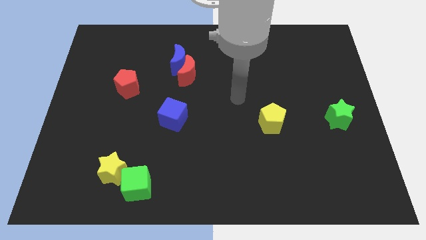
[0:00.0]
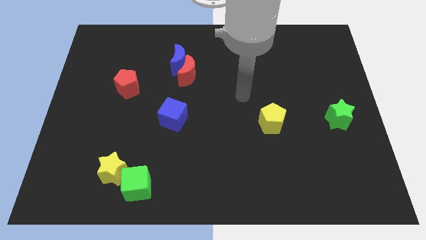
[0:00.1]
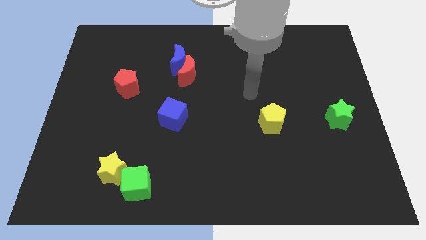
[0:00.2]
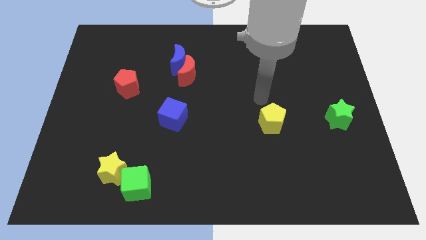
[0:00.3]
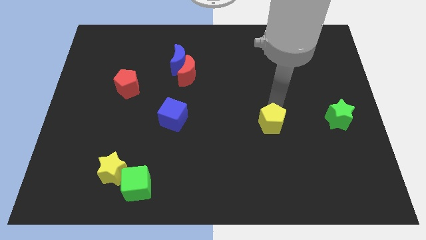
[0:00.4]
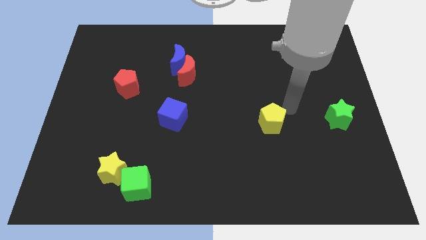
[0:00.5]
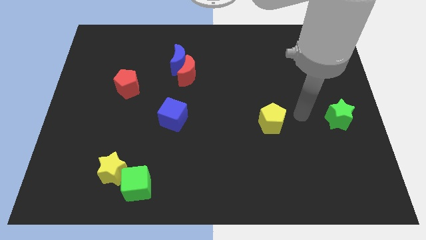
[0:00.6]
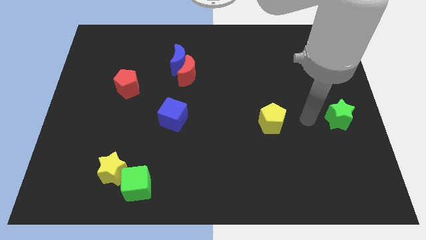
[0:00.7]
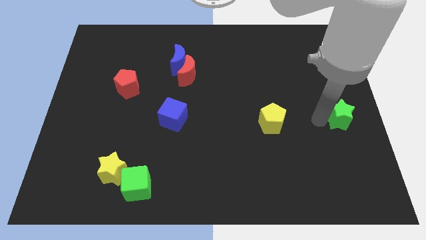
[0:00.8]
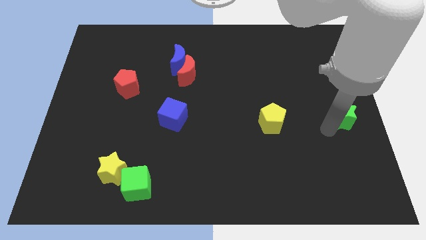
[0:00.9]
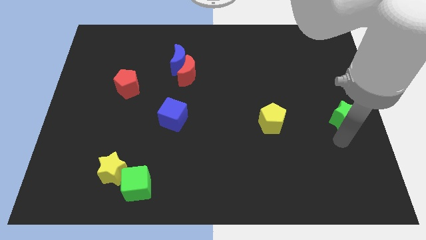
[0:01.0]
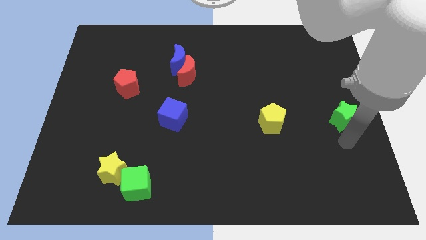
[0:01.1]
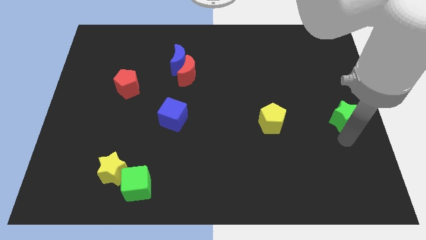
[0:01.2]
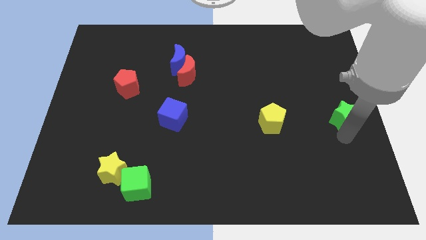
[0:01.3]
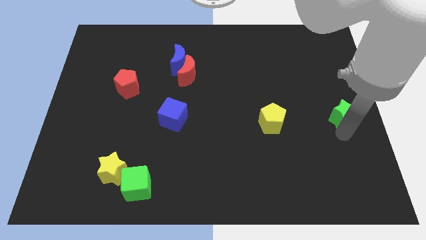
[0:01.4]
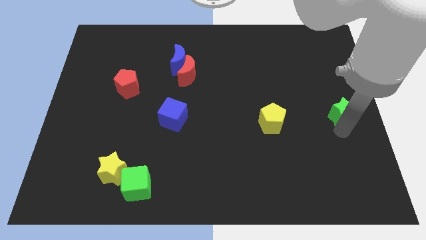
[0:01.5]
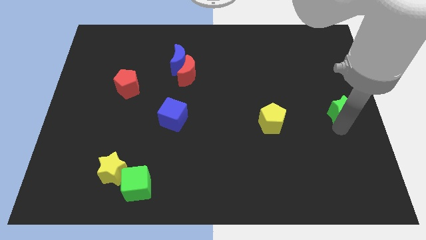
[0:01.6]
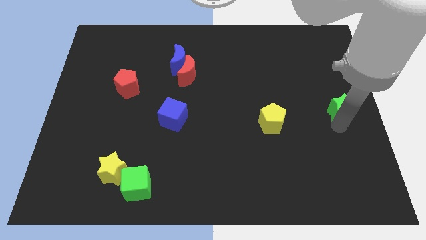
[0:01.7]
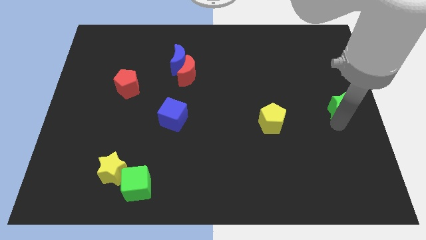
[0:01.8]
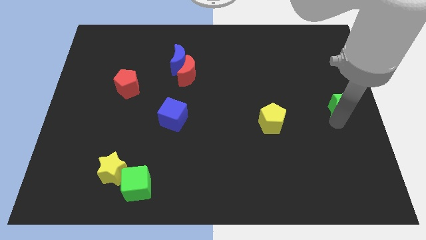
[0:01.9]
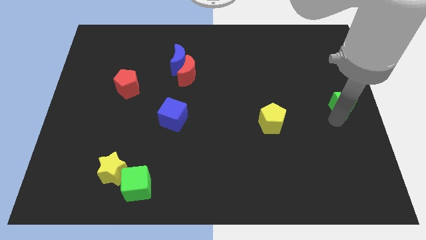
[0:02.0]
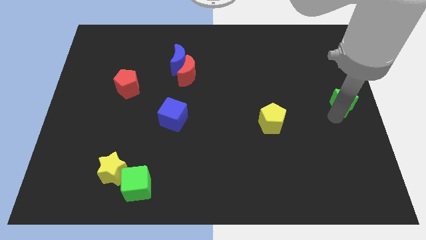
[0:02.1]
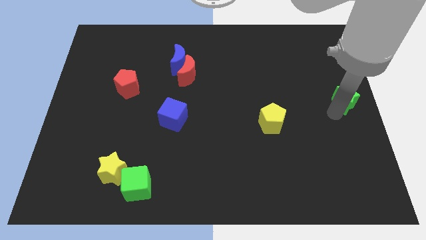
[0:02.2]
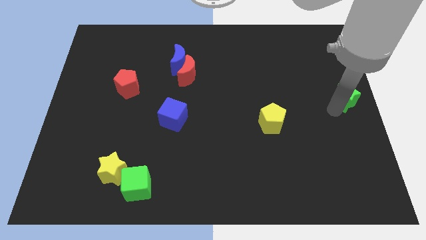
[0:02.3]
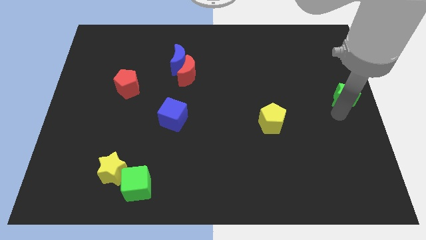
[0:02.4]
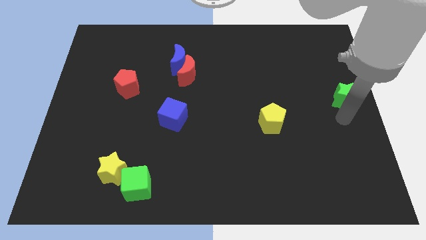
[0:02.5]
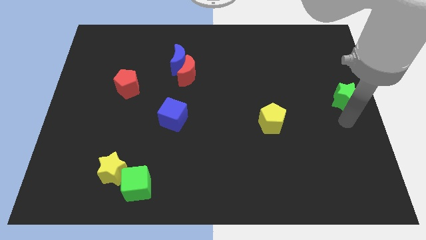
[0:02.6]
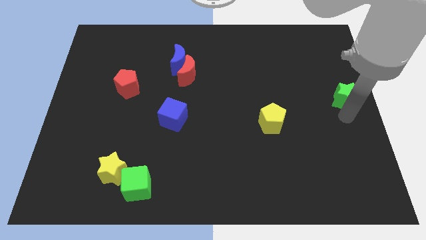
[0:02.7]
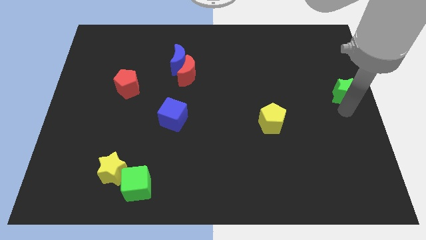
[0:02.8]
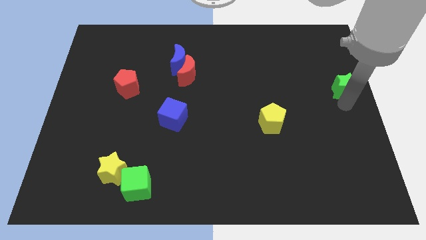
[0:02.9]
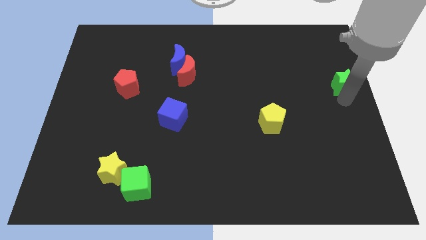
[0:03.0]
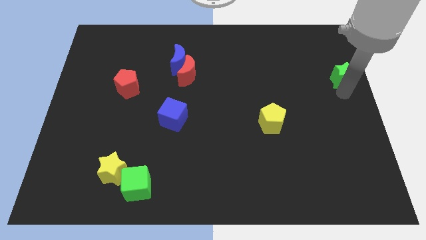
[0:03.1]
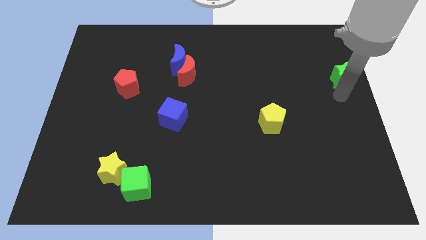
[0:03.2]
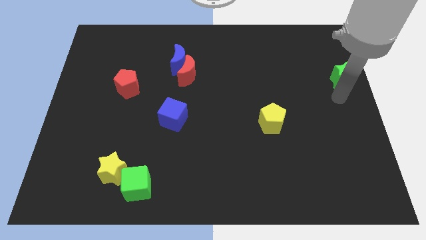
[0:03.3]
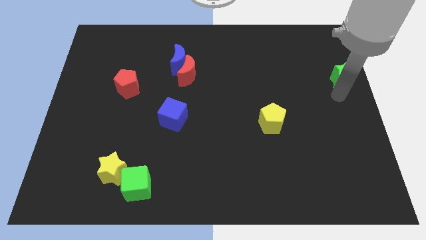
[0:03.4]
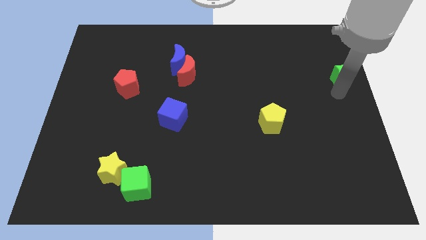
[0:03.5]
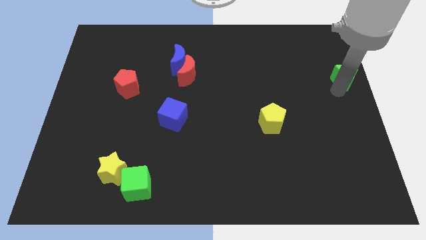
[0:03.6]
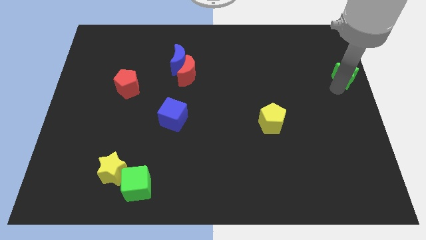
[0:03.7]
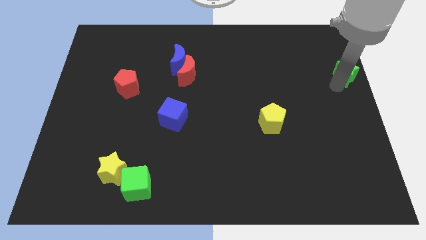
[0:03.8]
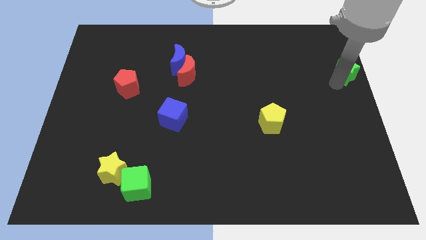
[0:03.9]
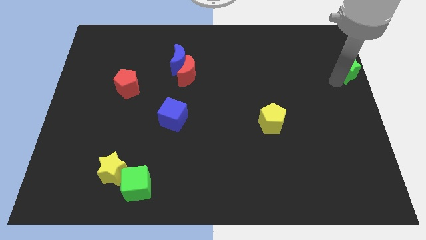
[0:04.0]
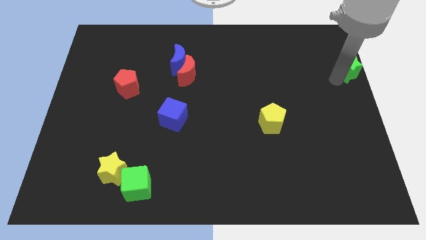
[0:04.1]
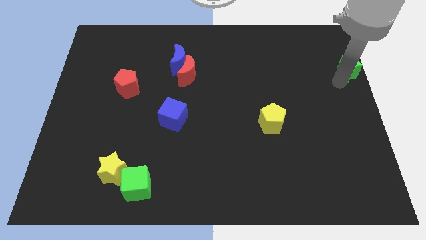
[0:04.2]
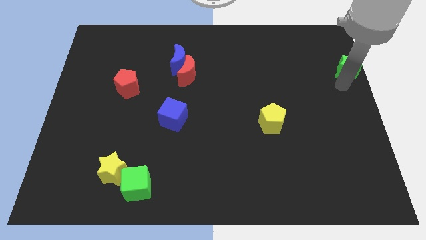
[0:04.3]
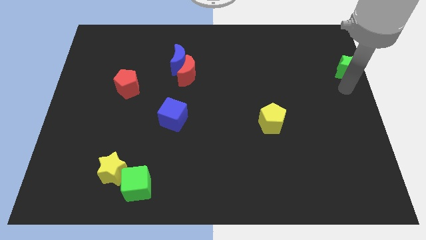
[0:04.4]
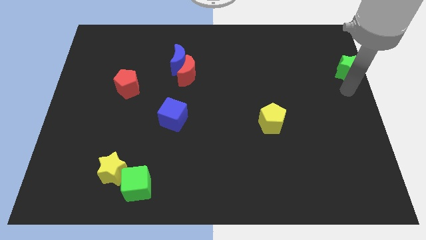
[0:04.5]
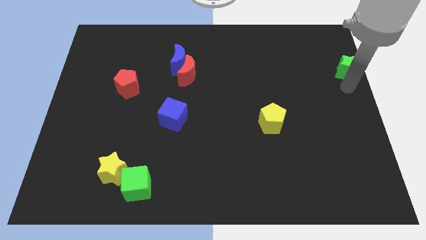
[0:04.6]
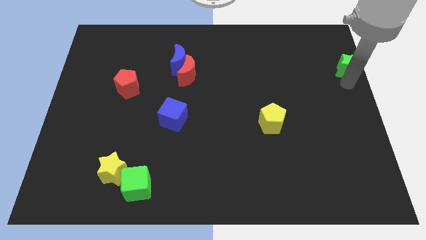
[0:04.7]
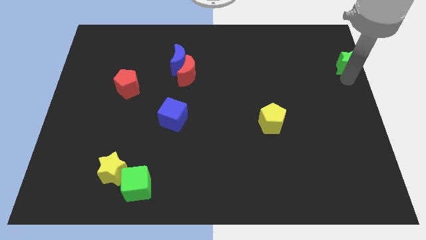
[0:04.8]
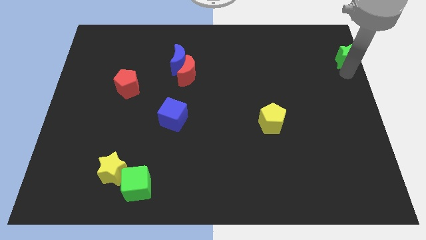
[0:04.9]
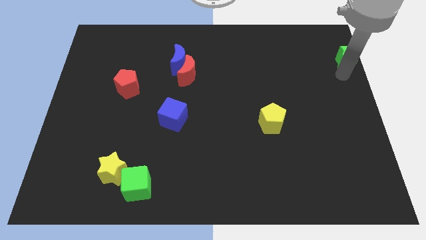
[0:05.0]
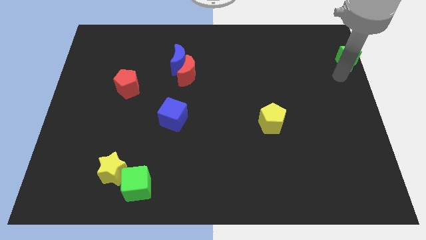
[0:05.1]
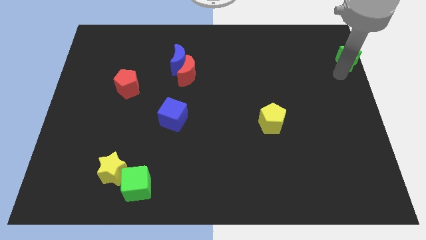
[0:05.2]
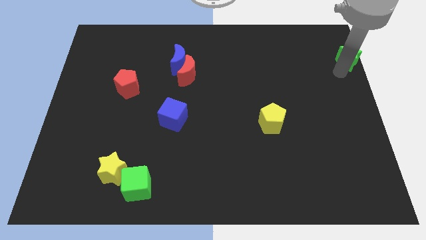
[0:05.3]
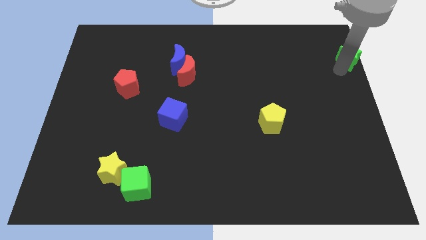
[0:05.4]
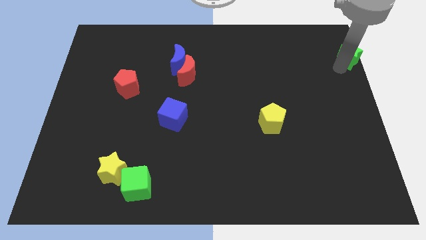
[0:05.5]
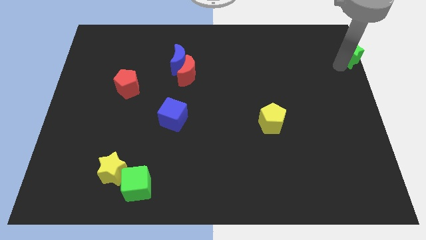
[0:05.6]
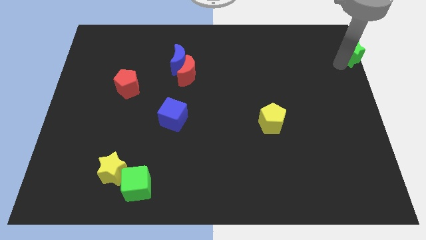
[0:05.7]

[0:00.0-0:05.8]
put the green star to the top right corner
